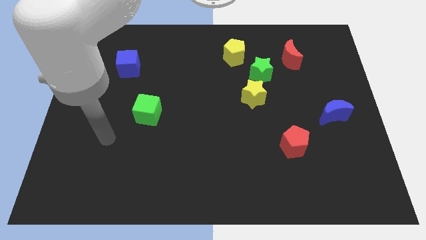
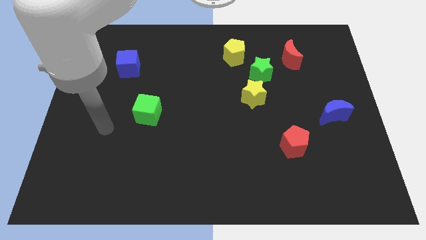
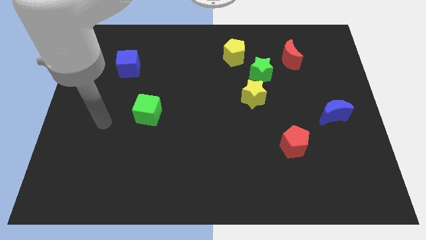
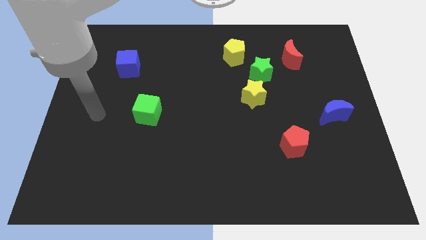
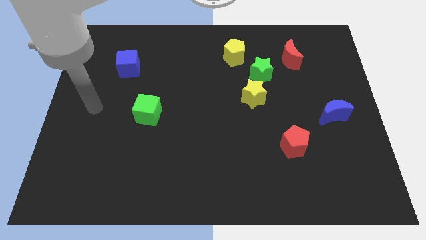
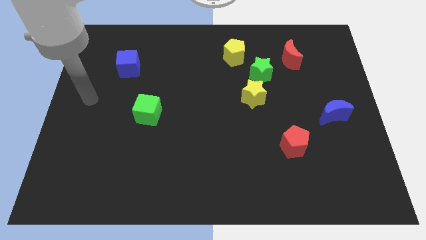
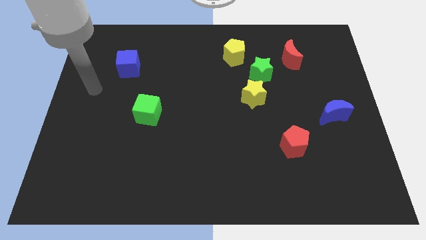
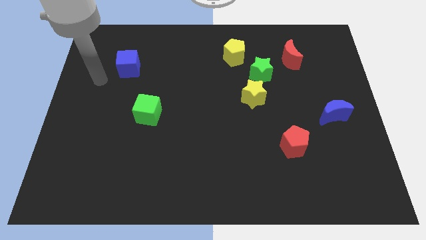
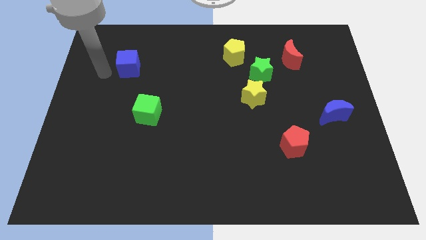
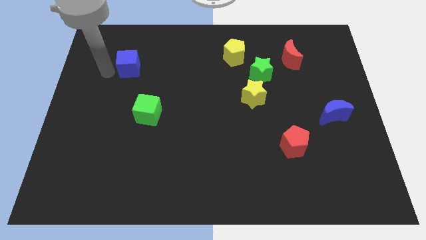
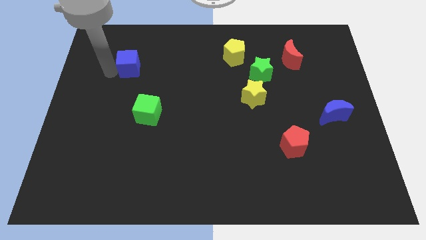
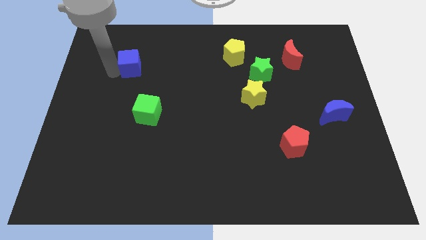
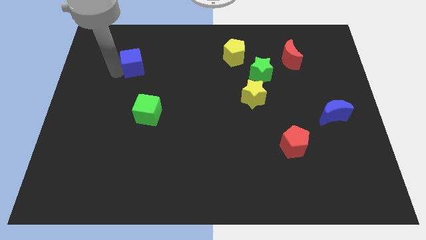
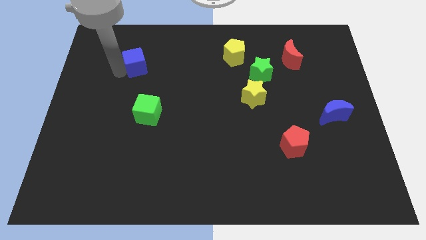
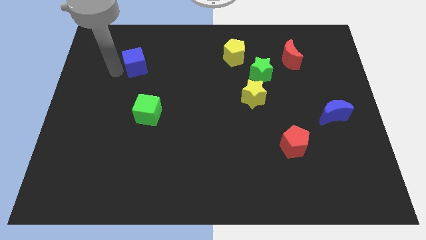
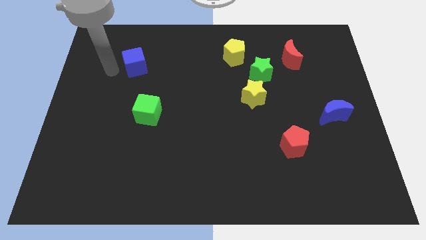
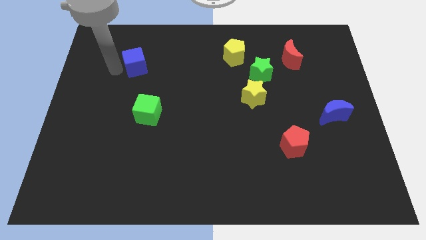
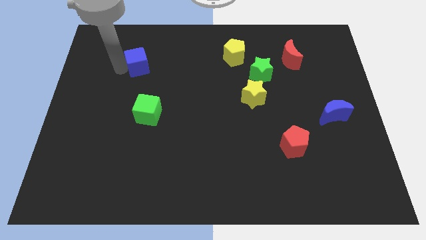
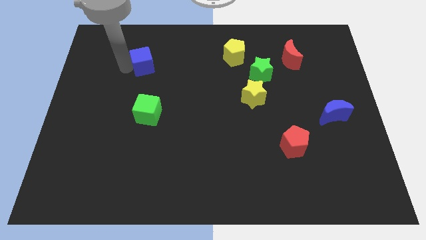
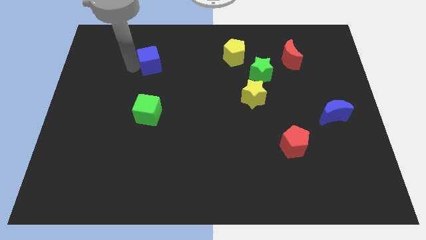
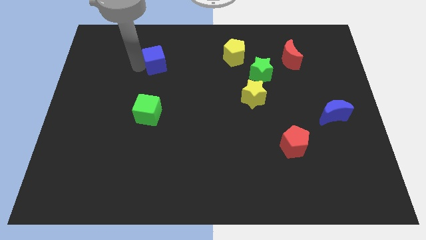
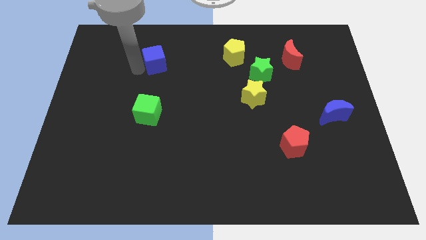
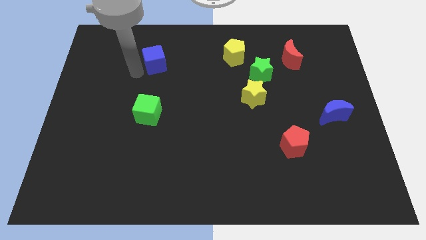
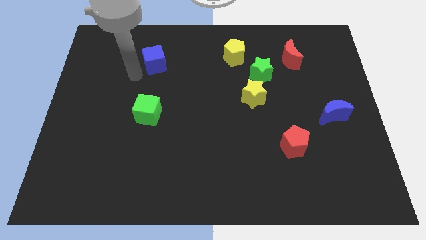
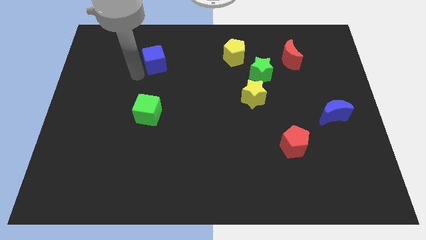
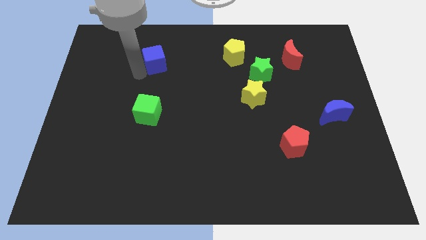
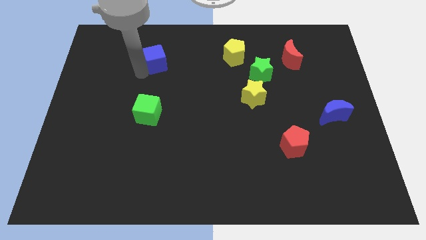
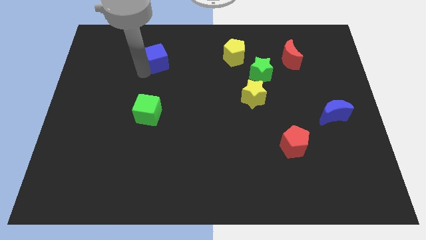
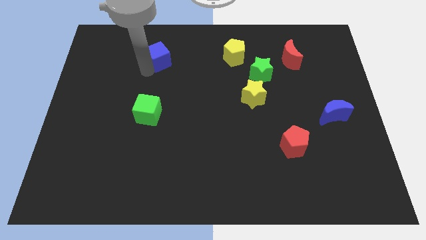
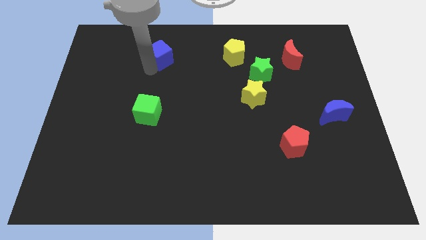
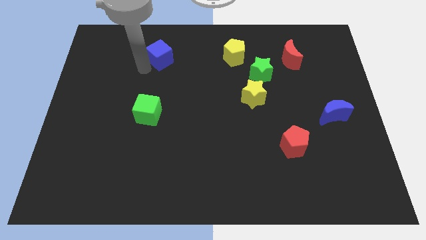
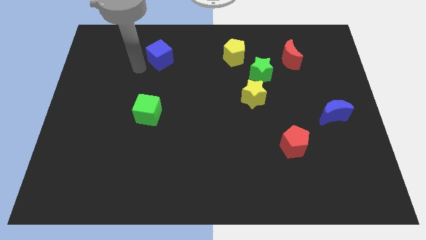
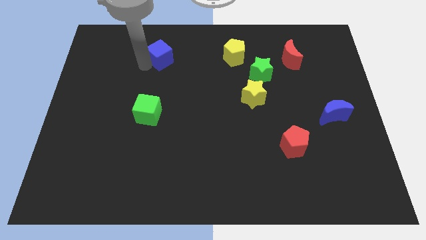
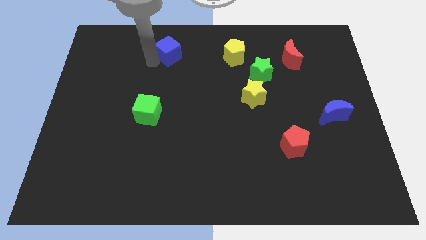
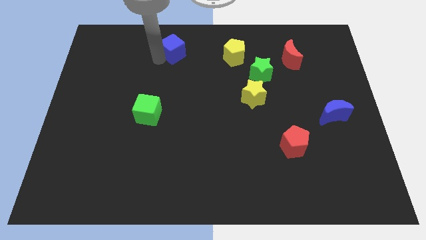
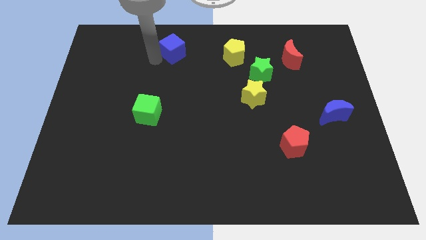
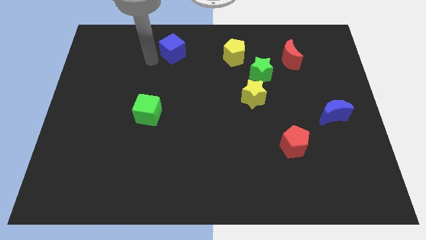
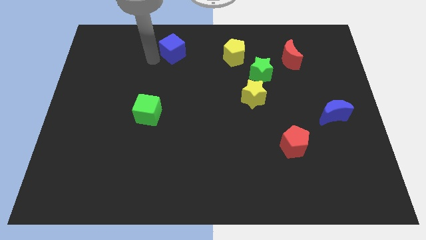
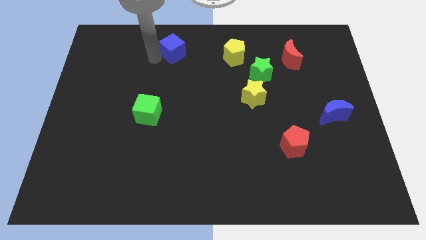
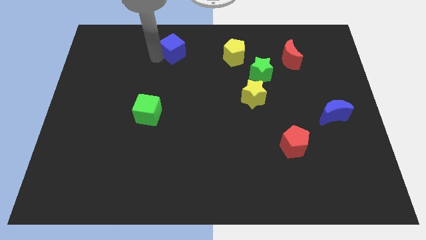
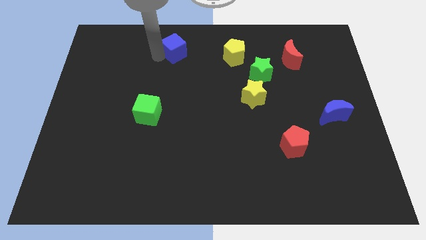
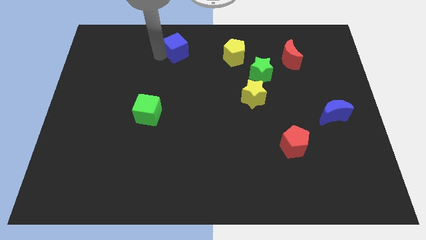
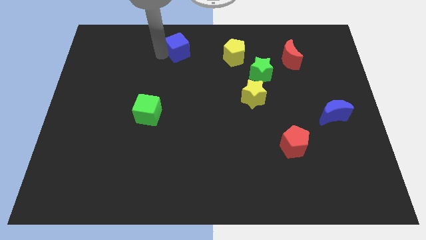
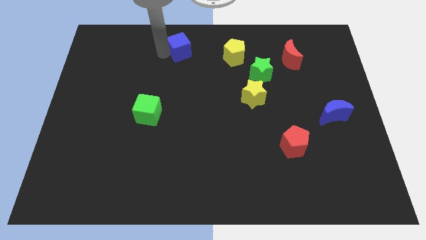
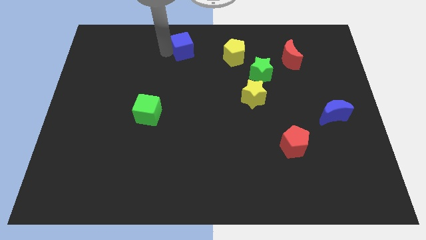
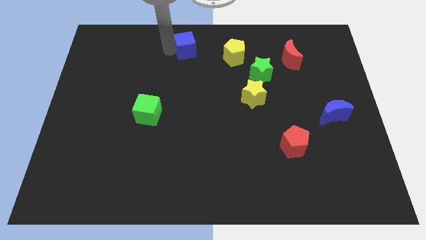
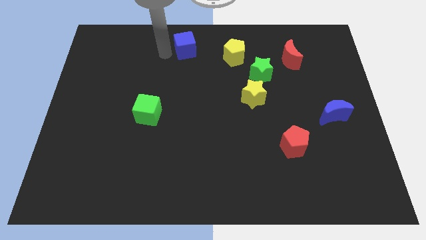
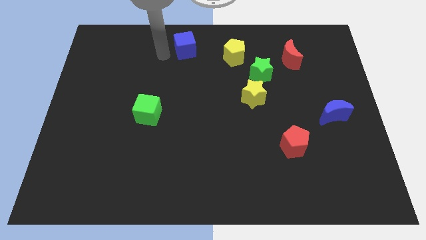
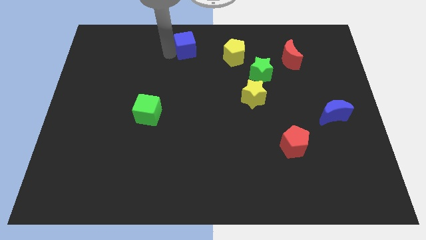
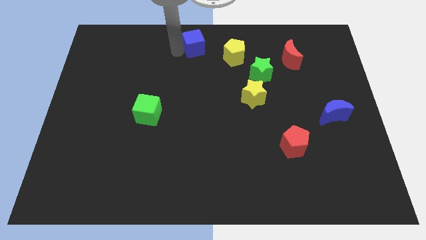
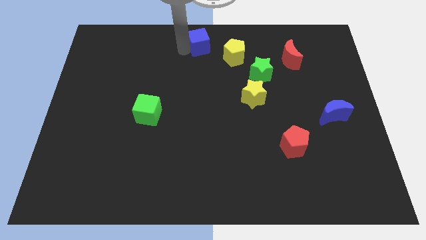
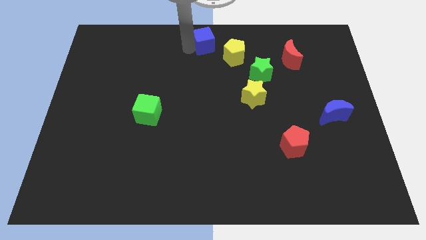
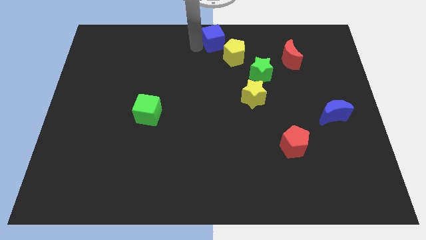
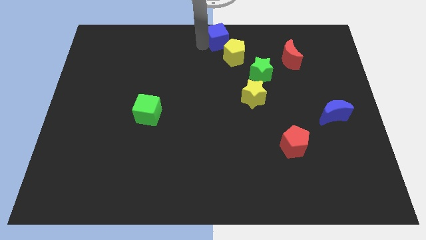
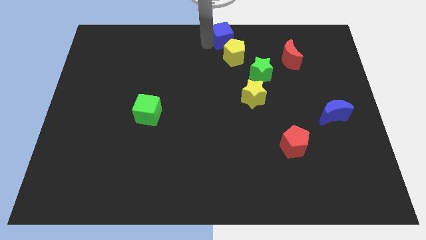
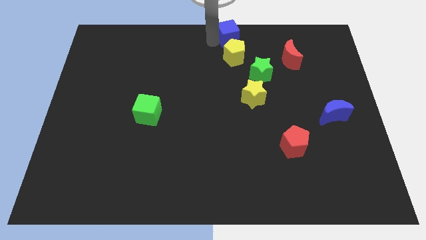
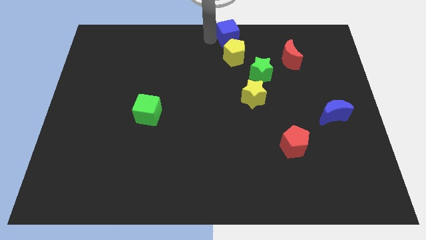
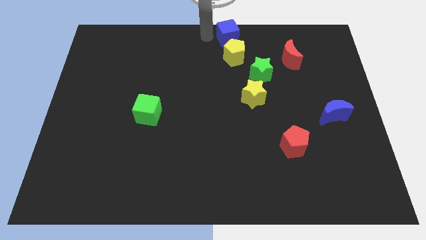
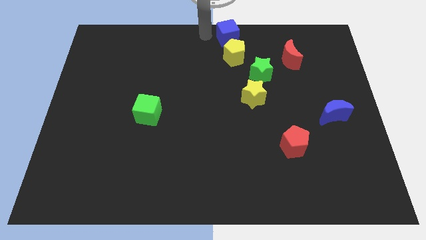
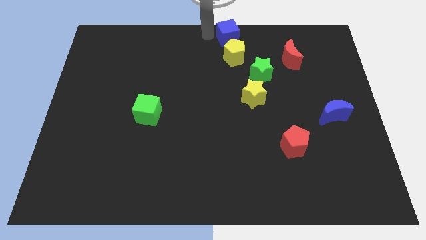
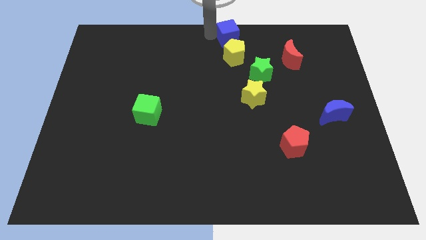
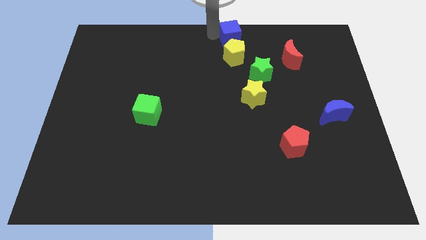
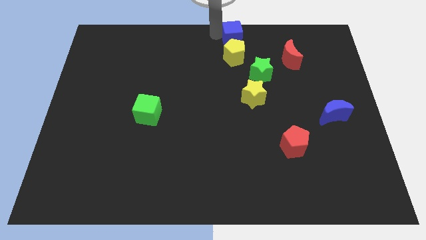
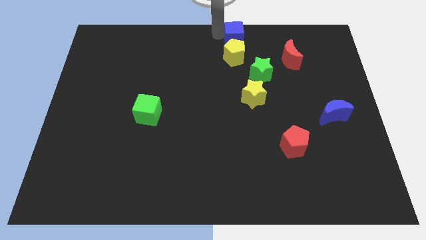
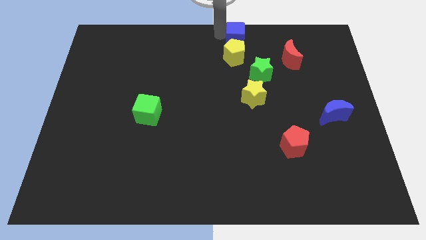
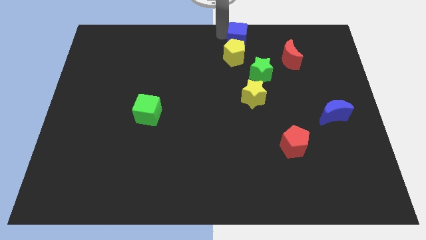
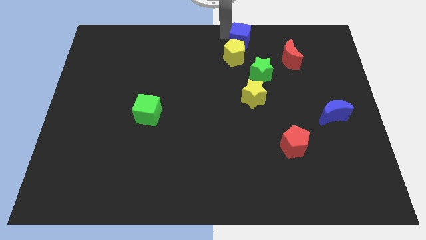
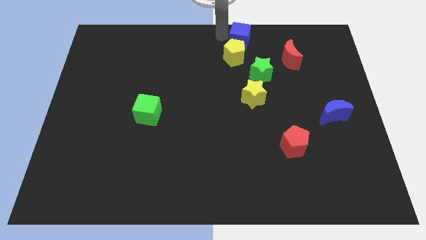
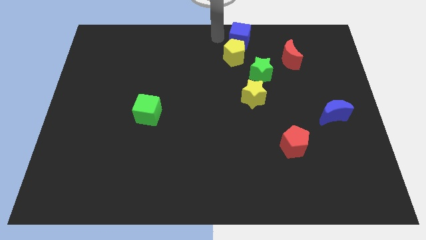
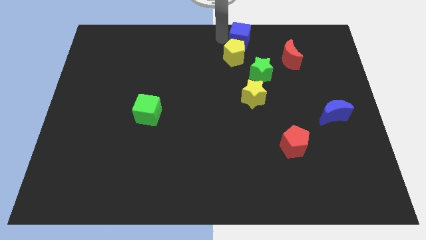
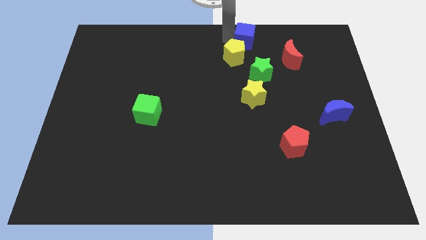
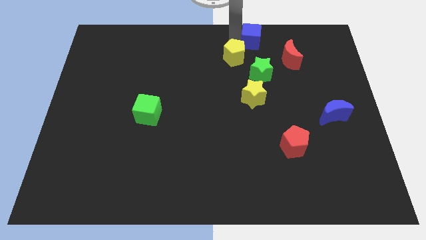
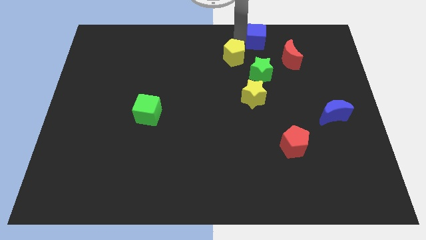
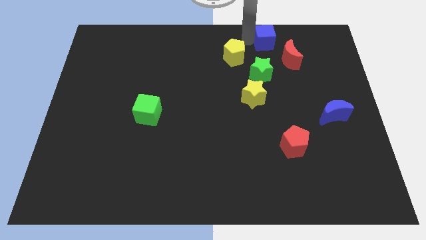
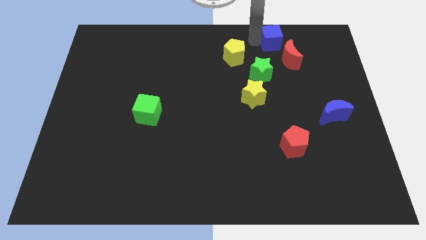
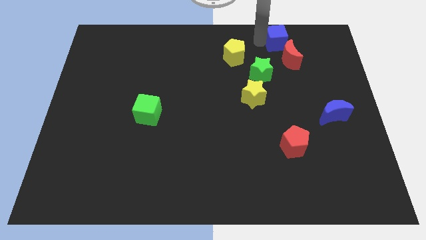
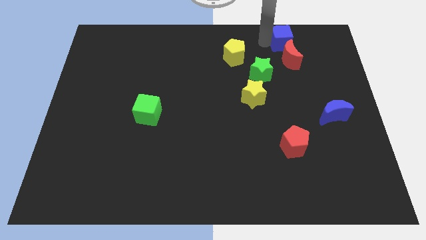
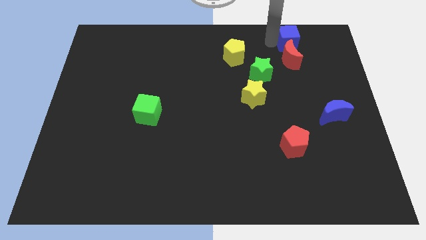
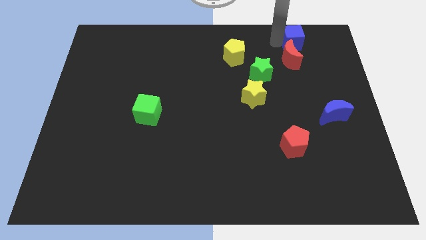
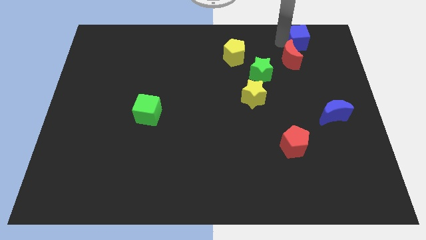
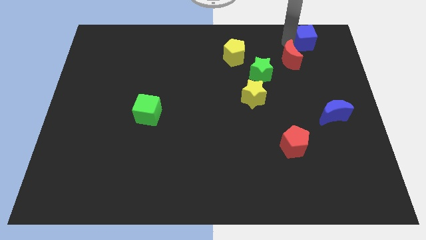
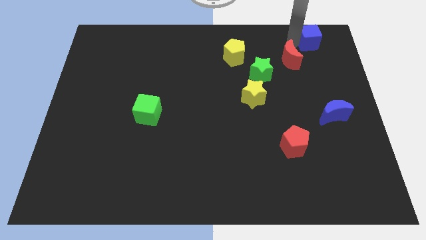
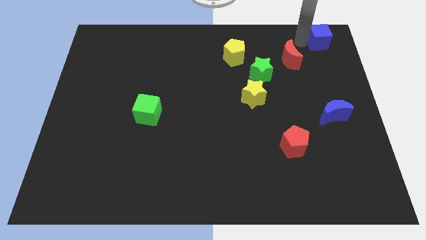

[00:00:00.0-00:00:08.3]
push the blue cube to the top right

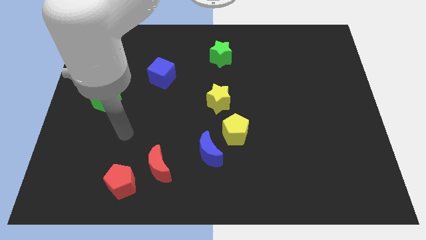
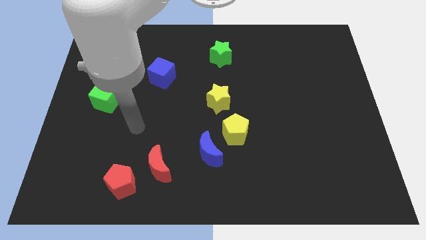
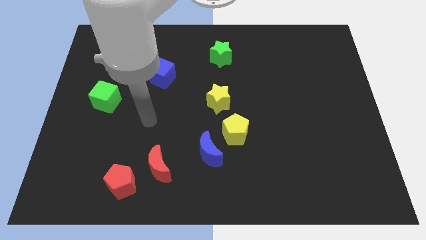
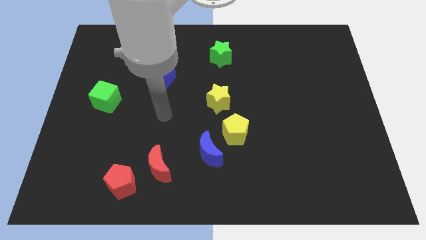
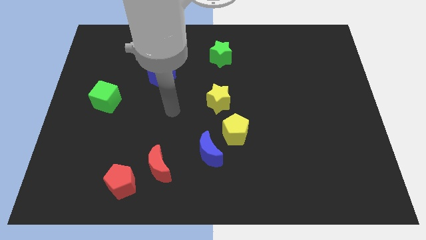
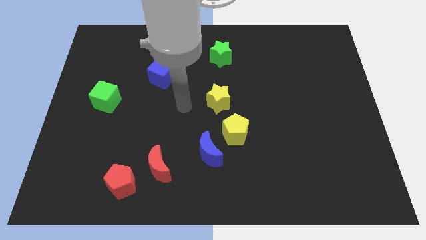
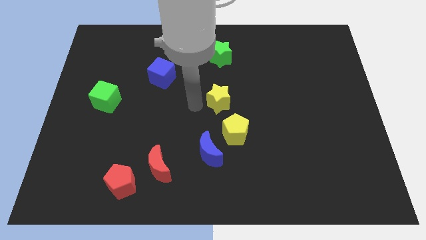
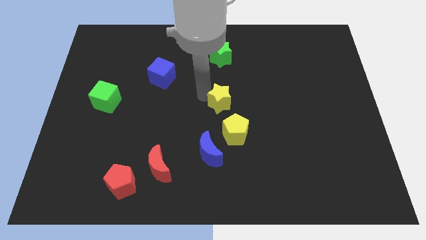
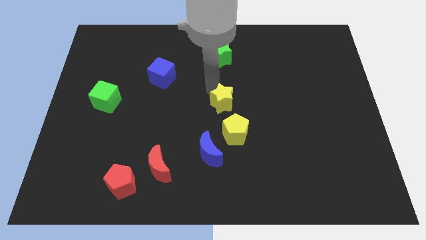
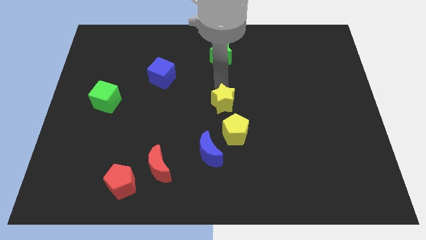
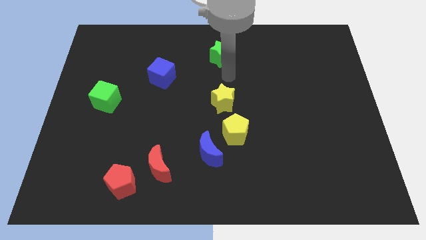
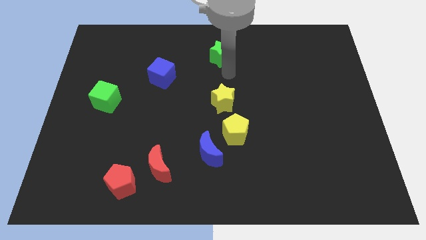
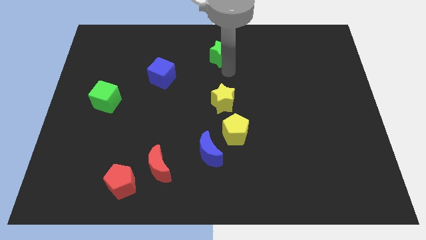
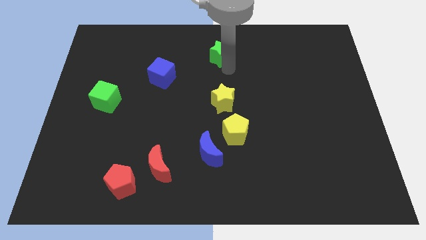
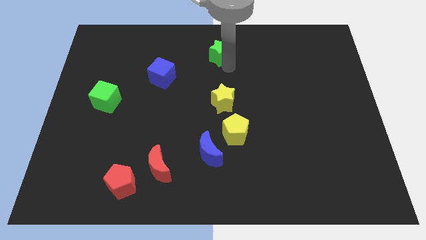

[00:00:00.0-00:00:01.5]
push the green star to the towards your base
